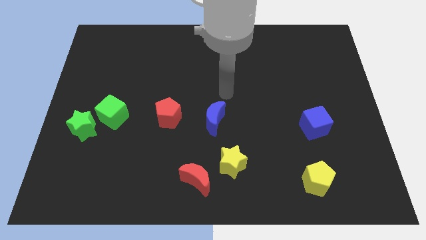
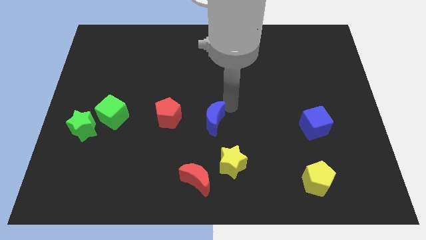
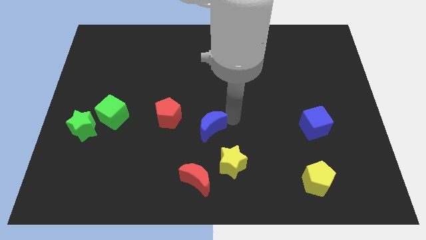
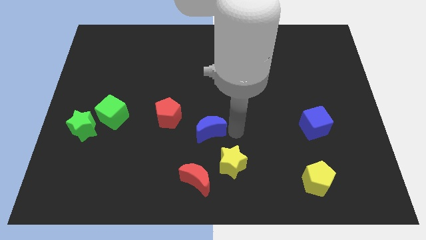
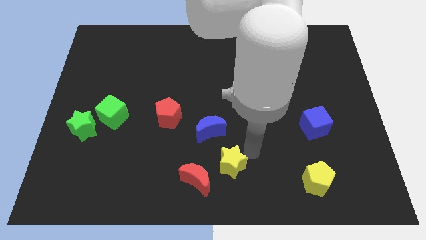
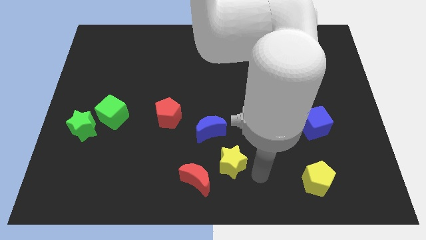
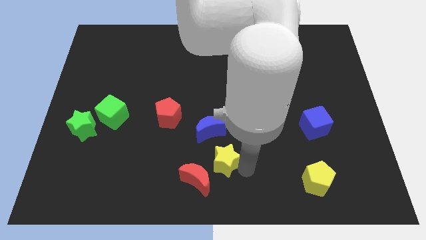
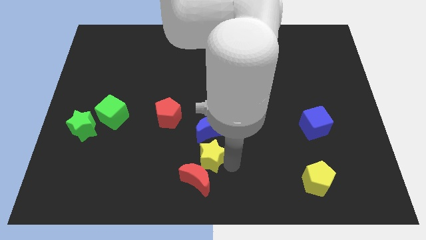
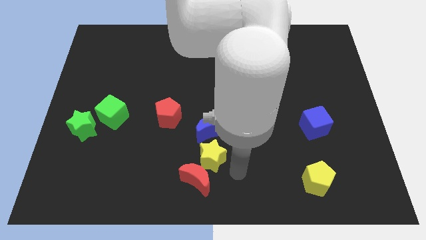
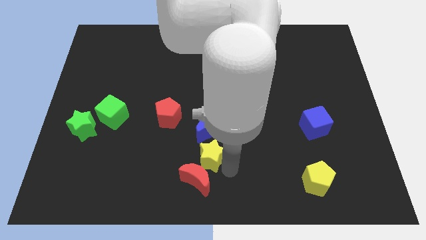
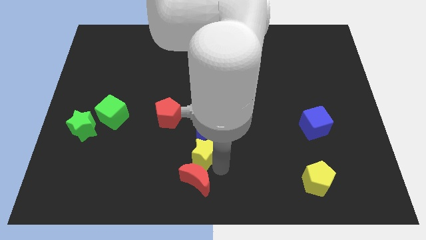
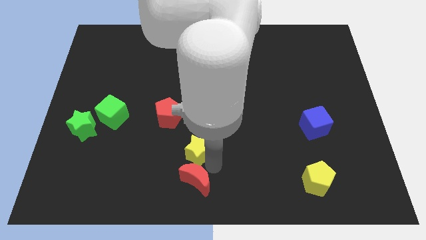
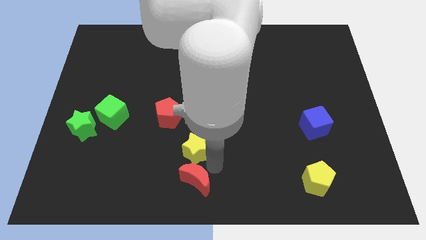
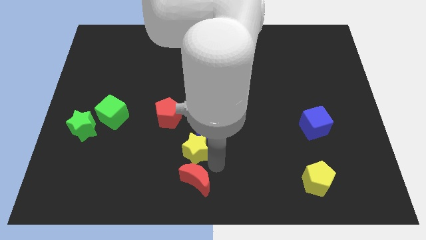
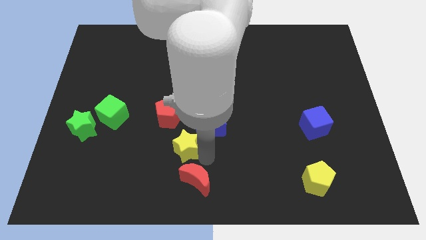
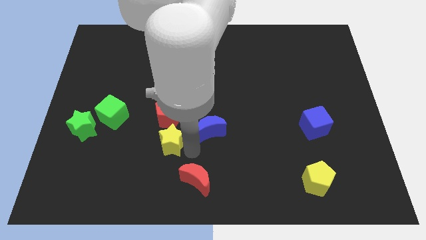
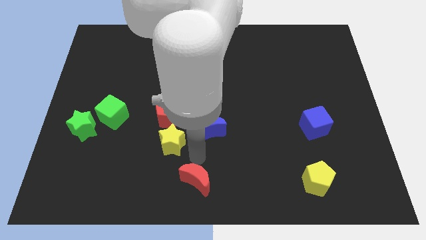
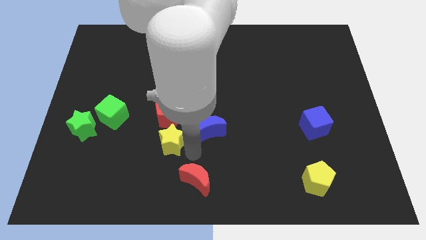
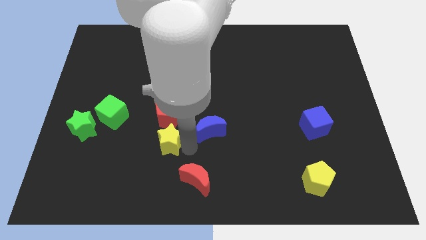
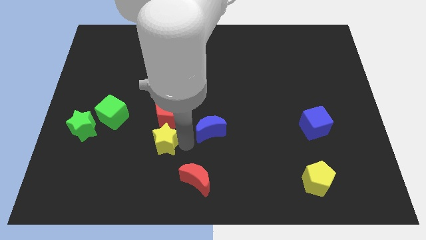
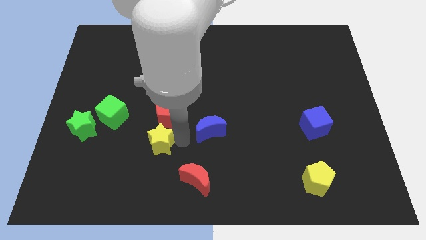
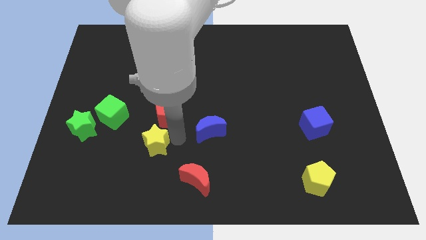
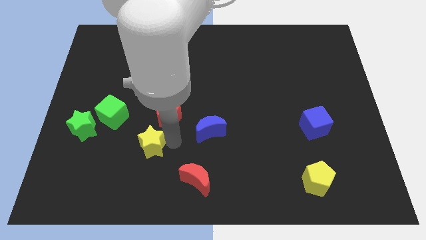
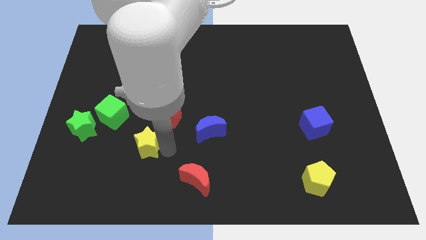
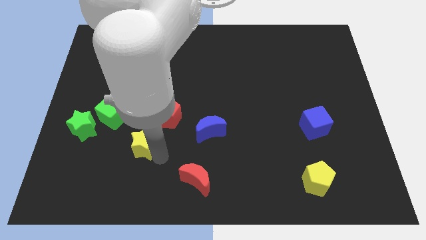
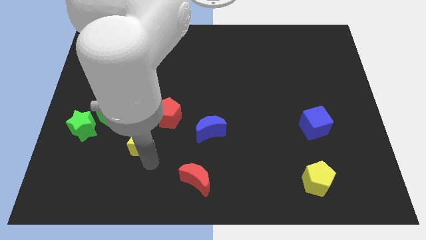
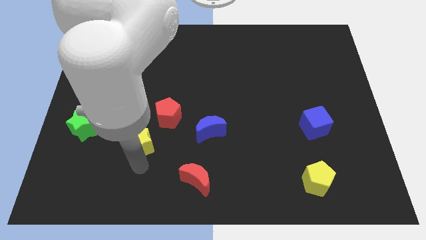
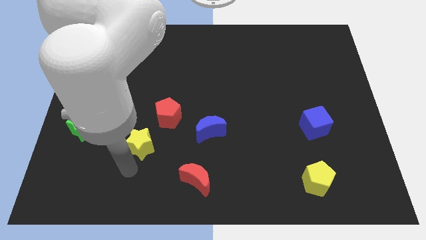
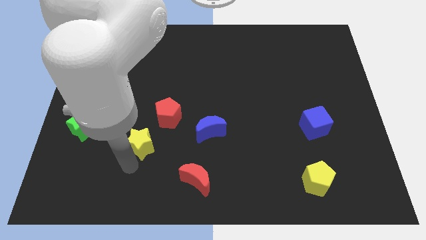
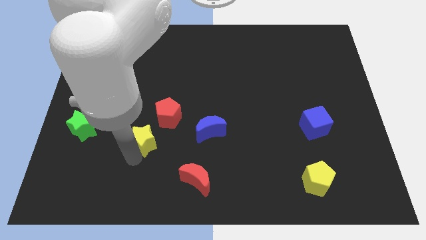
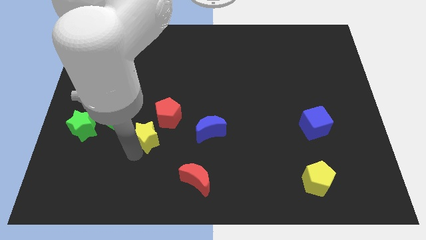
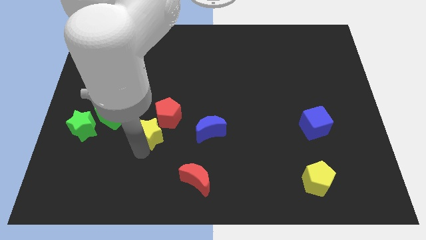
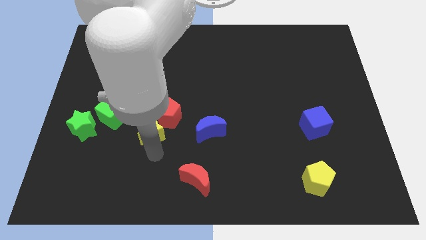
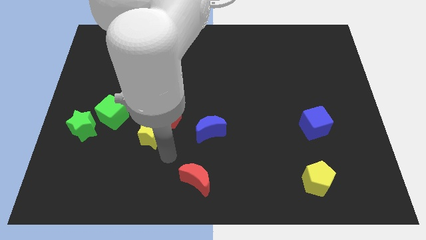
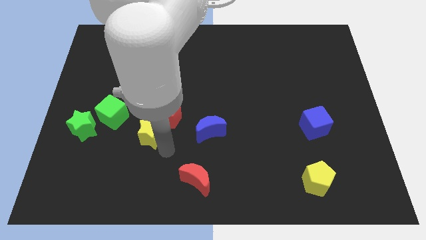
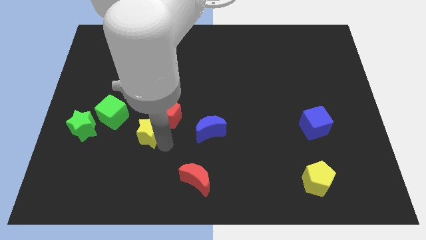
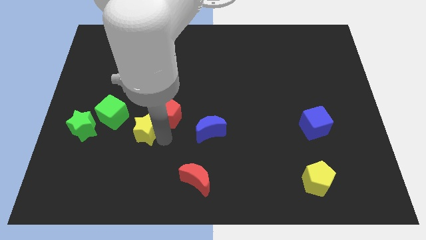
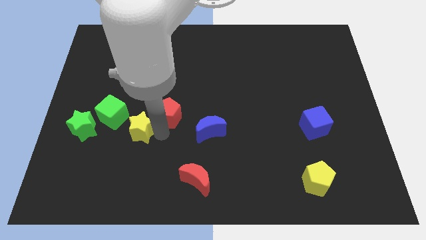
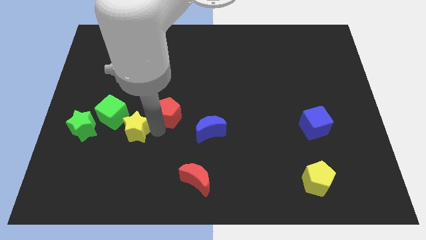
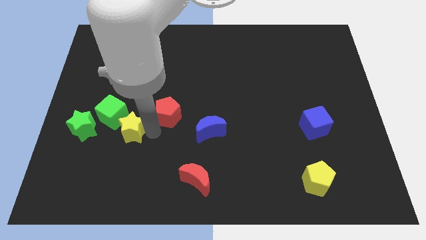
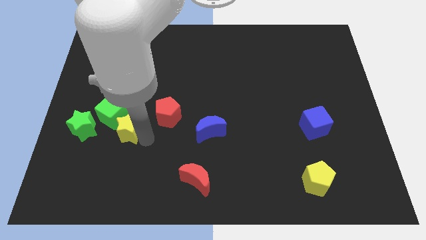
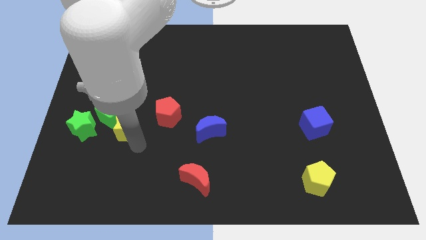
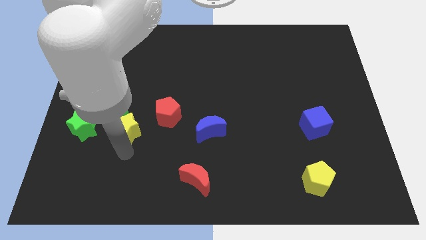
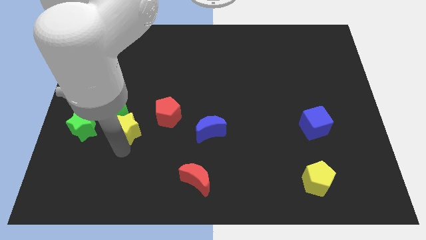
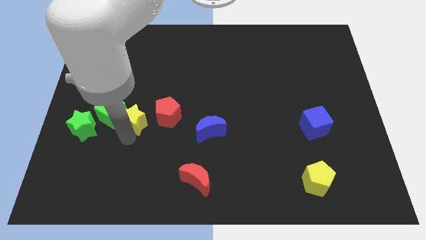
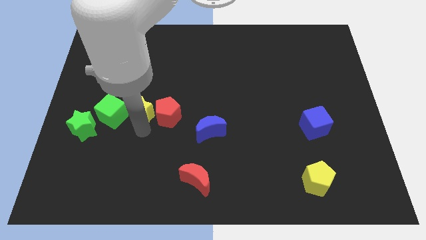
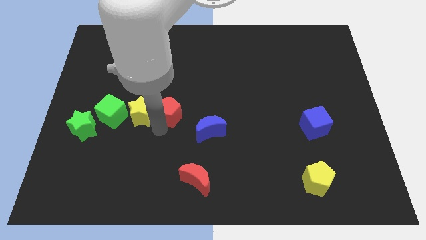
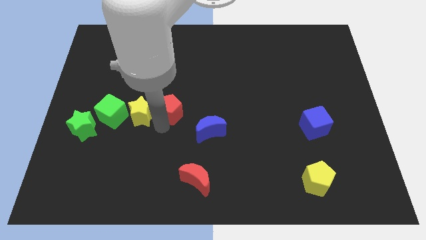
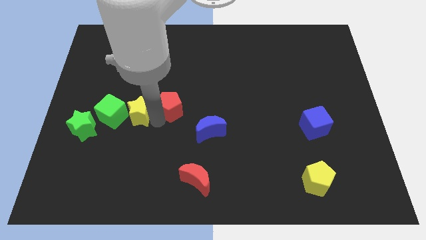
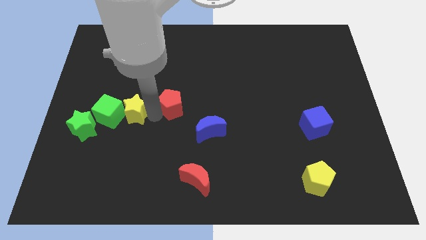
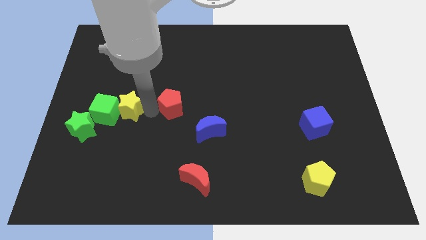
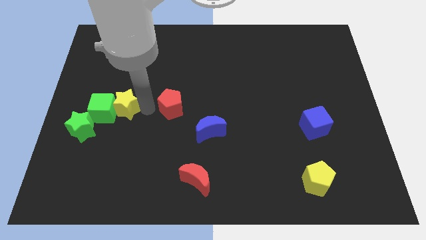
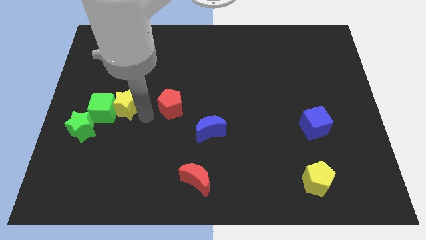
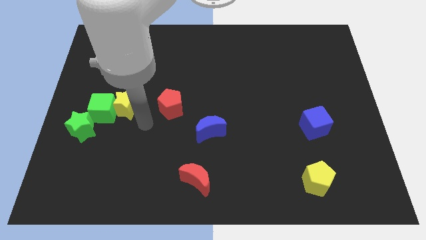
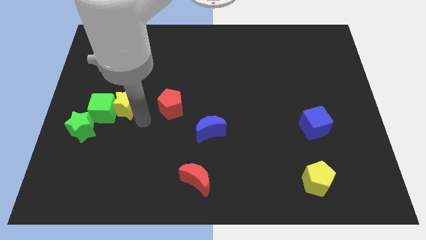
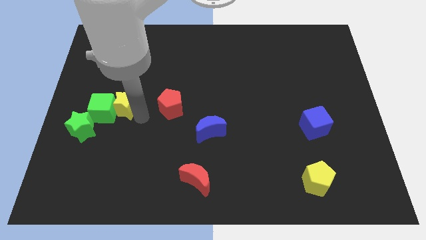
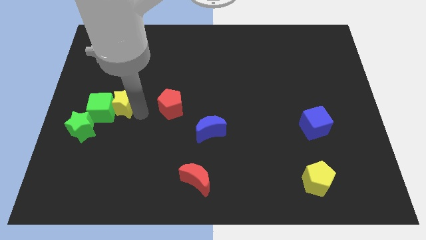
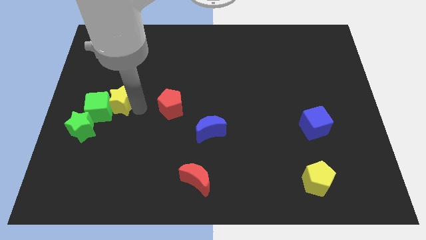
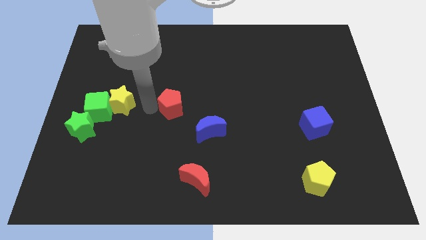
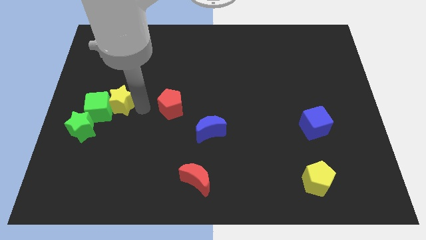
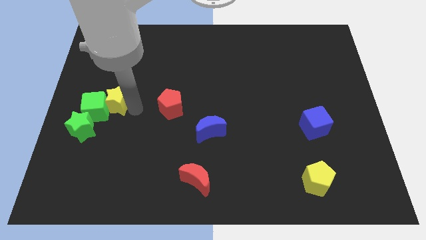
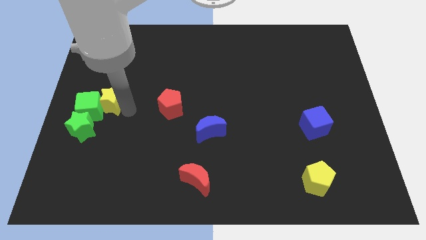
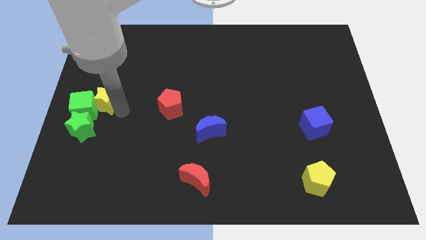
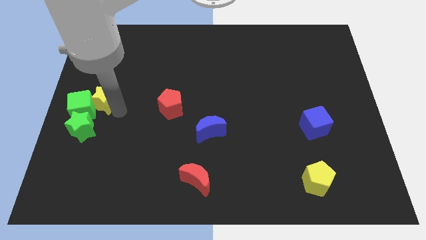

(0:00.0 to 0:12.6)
push the yellow star to the left side

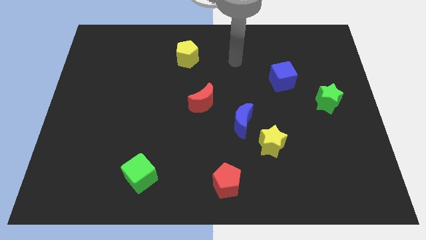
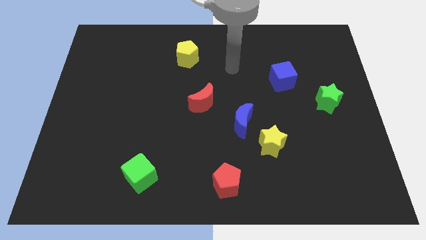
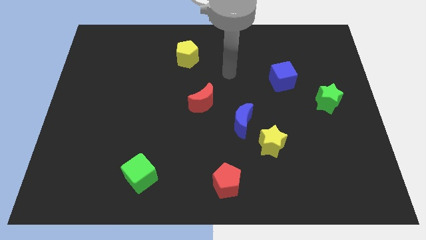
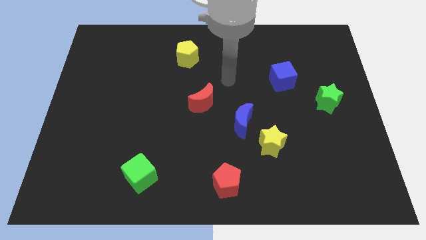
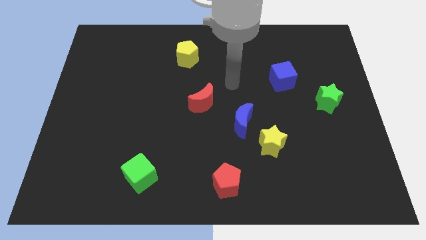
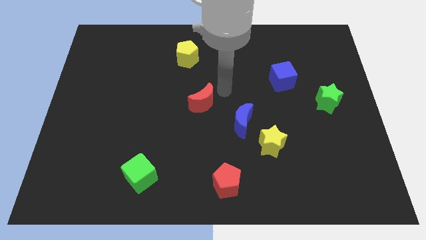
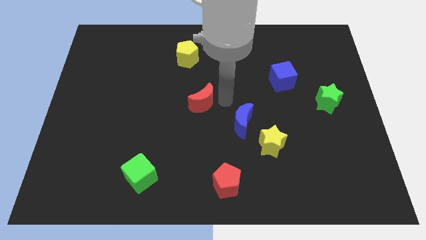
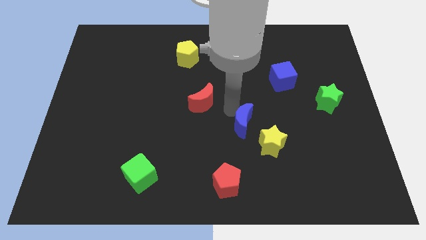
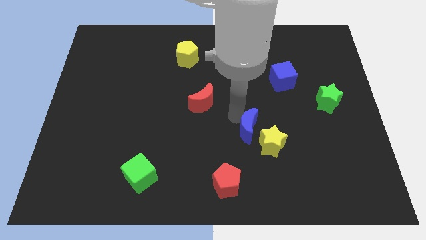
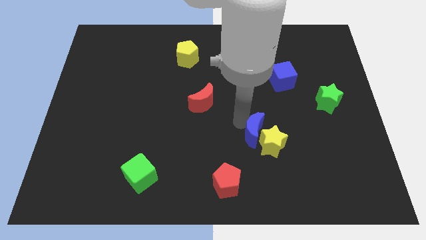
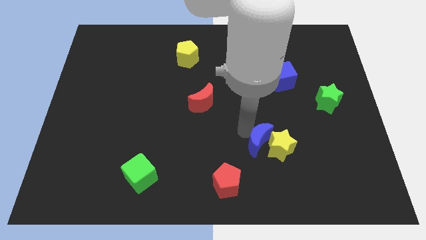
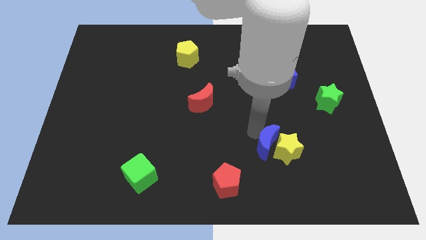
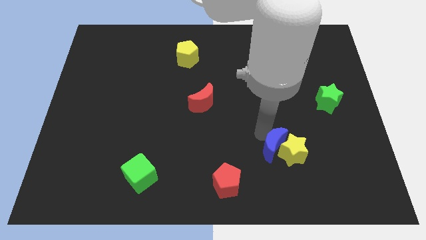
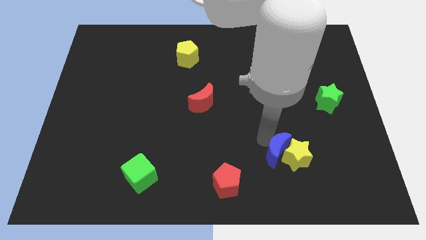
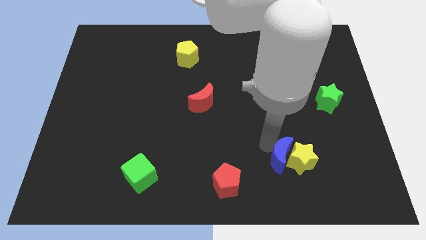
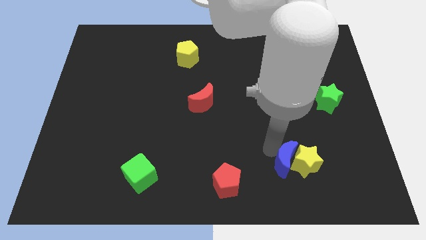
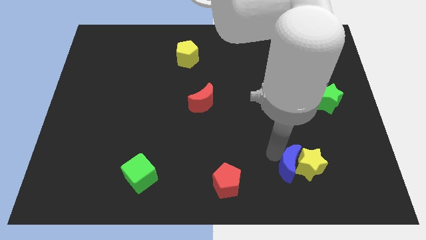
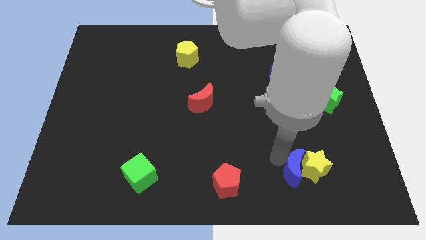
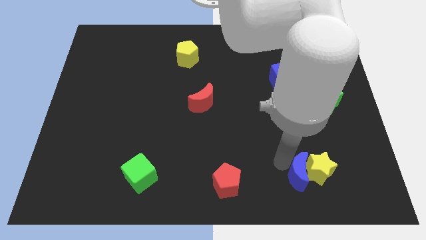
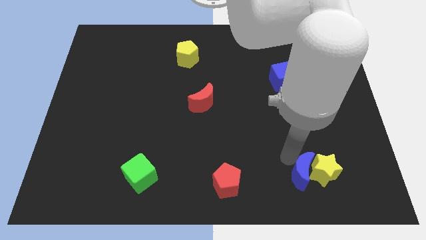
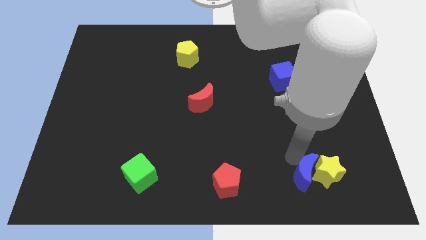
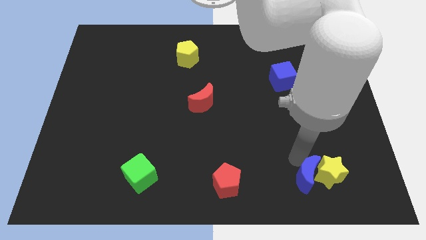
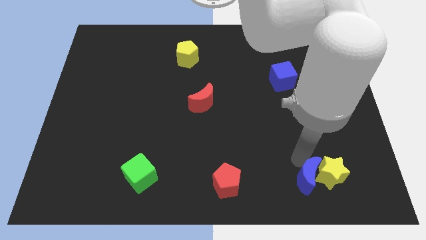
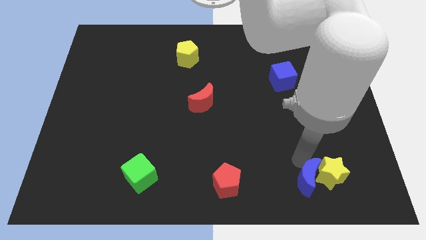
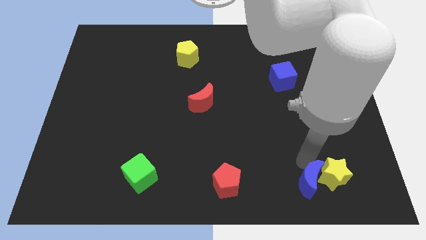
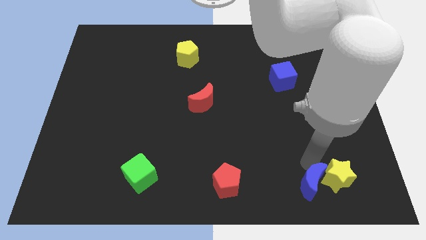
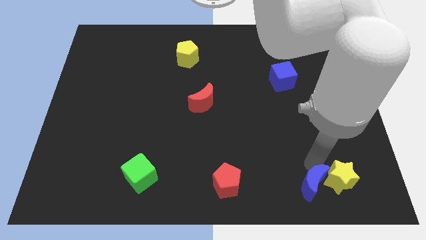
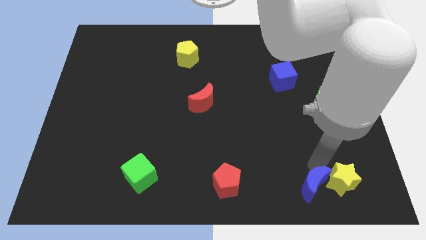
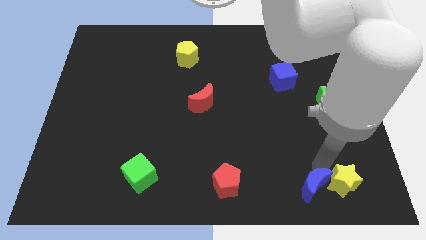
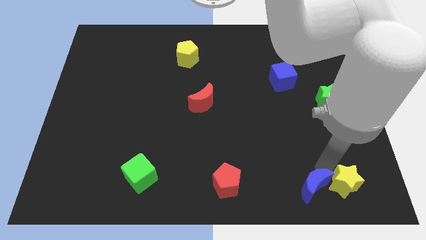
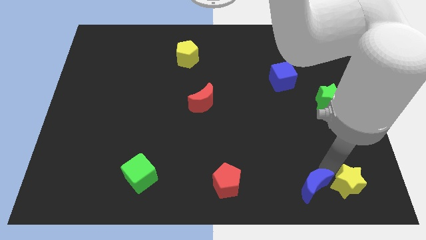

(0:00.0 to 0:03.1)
push the yellow star to the bottom right corner
